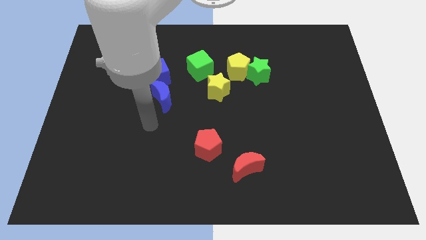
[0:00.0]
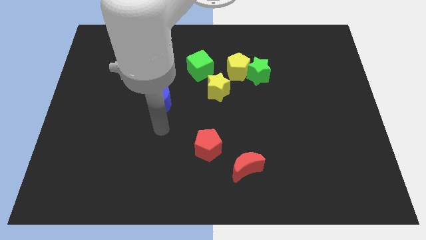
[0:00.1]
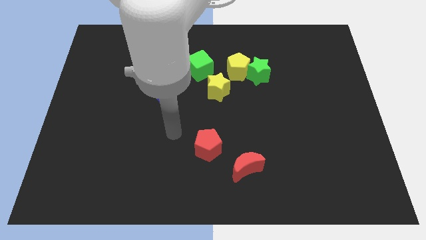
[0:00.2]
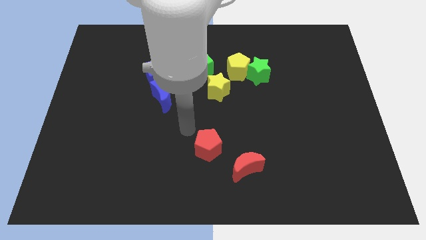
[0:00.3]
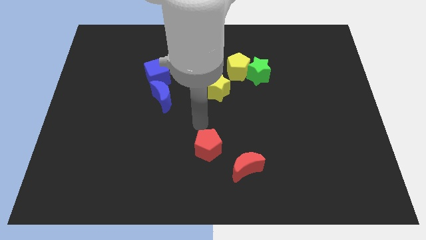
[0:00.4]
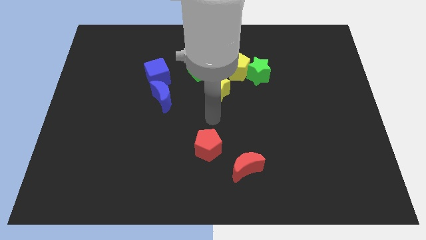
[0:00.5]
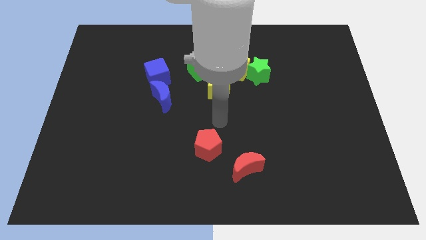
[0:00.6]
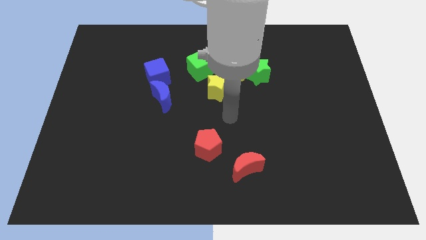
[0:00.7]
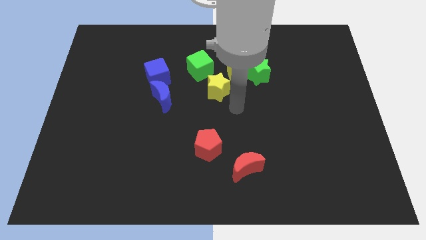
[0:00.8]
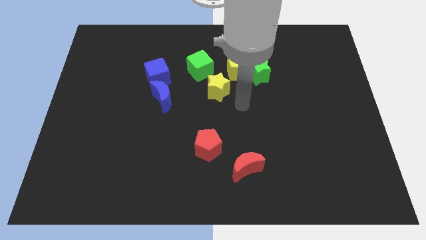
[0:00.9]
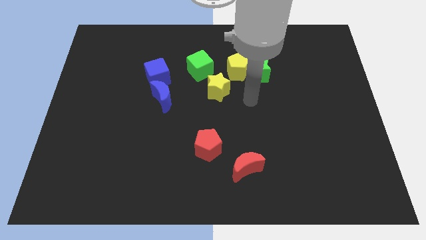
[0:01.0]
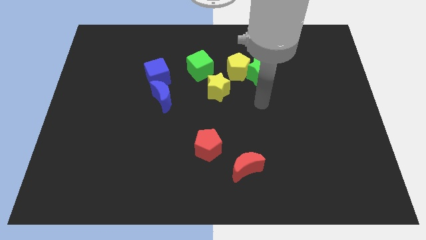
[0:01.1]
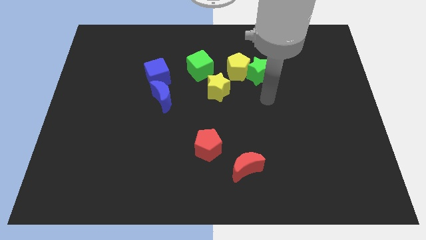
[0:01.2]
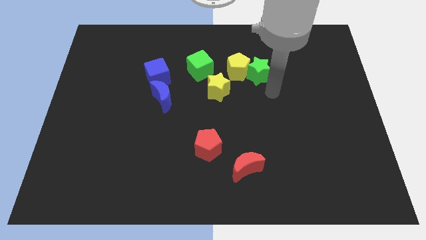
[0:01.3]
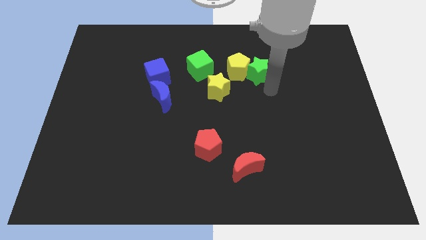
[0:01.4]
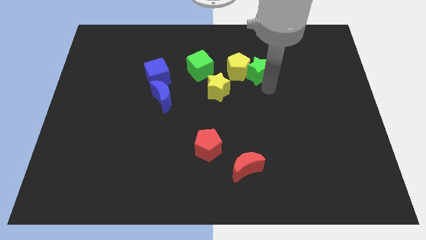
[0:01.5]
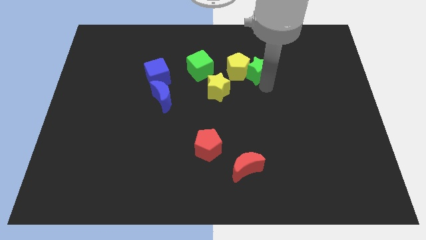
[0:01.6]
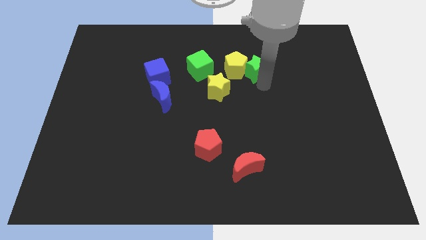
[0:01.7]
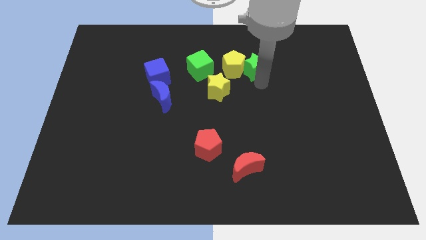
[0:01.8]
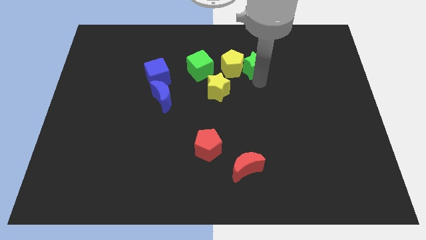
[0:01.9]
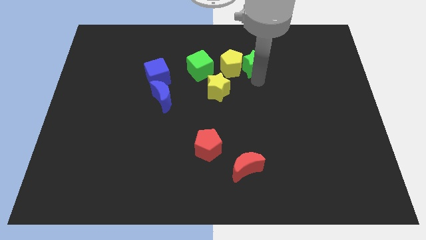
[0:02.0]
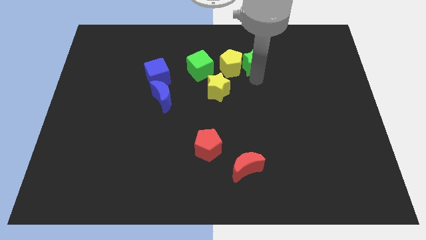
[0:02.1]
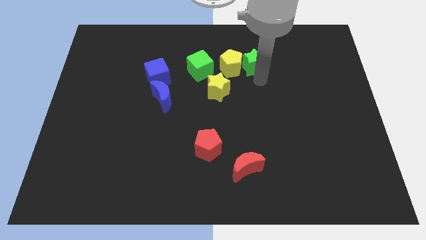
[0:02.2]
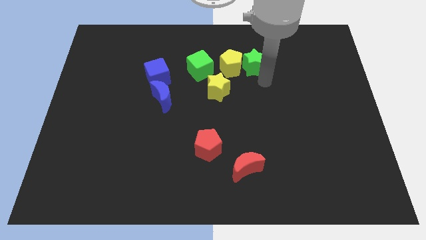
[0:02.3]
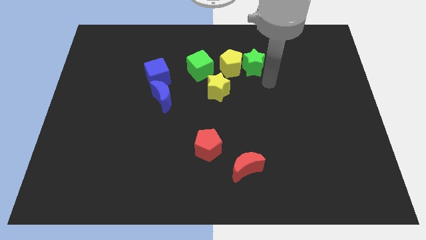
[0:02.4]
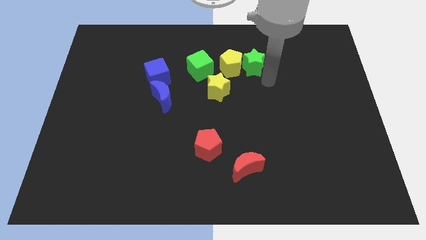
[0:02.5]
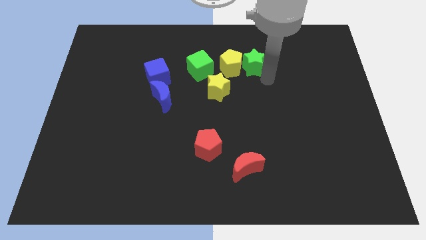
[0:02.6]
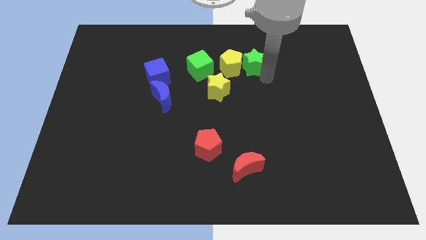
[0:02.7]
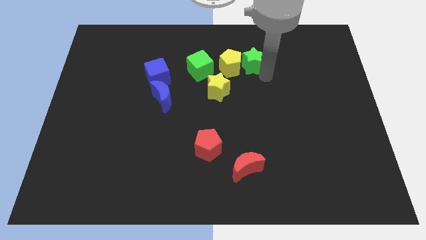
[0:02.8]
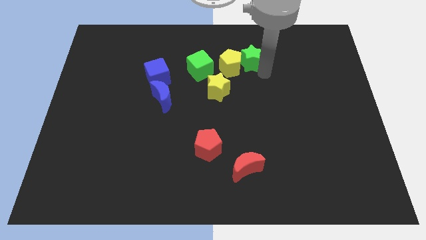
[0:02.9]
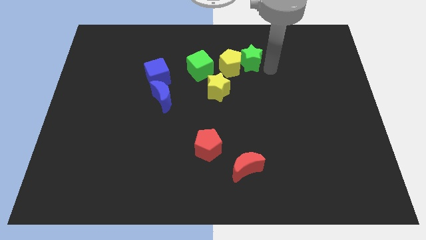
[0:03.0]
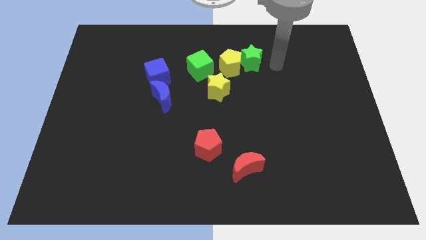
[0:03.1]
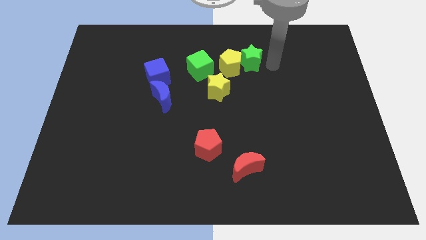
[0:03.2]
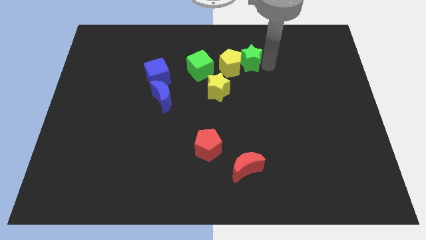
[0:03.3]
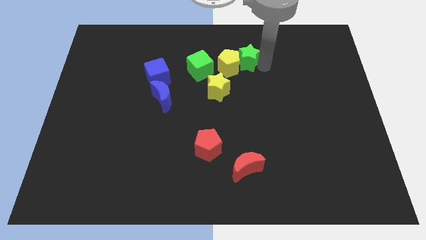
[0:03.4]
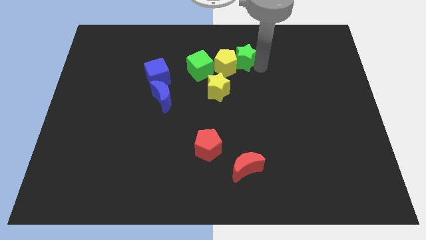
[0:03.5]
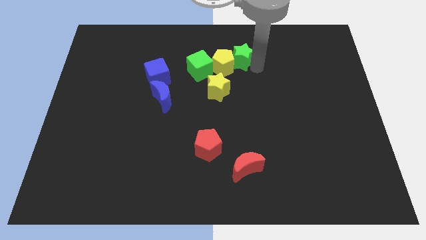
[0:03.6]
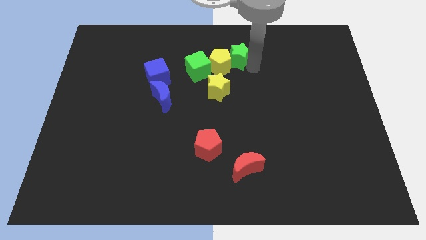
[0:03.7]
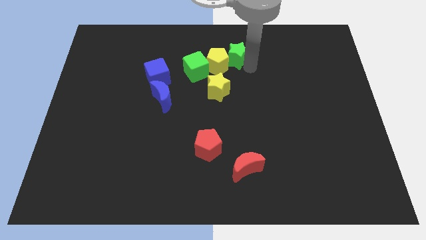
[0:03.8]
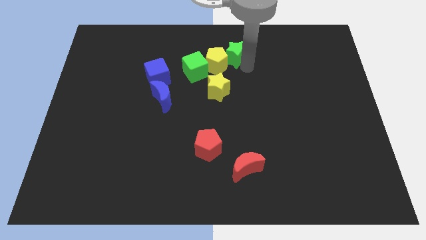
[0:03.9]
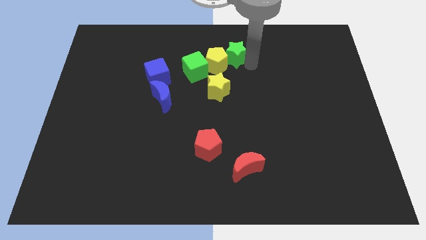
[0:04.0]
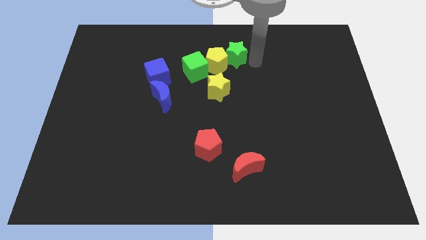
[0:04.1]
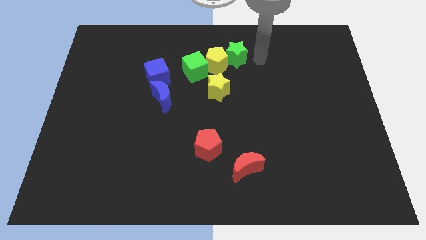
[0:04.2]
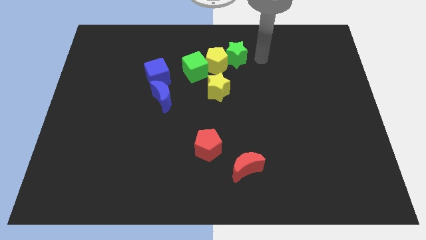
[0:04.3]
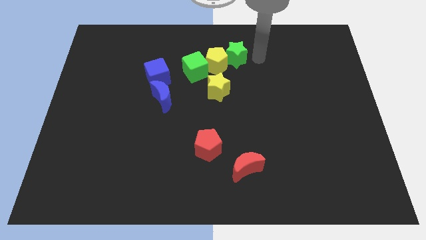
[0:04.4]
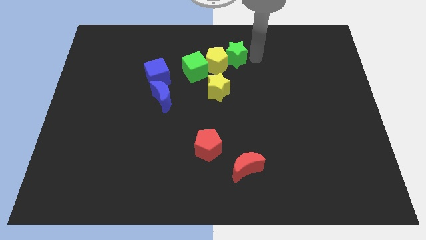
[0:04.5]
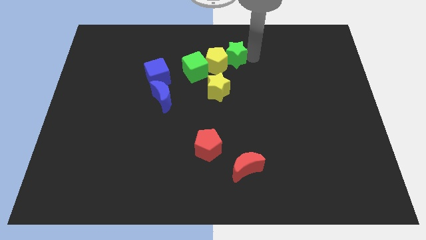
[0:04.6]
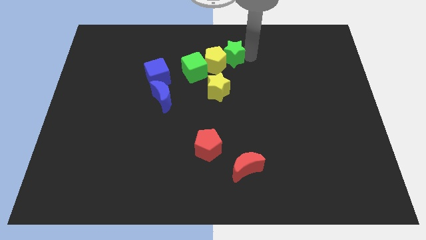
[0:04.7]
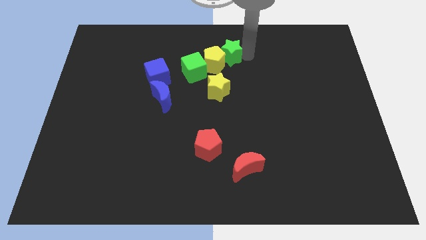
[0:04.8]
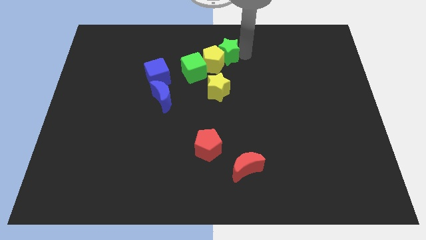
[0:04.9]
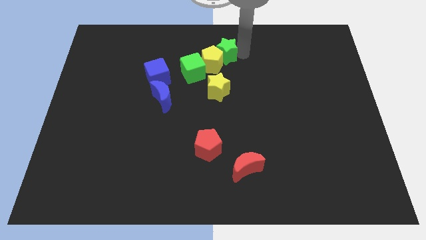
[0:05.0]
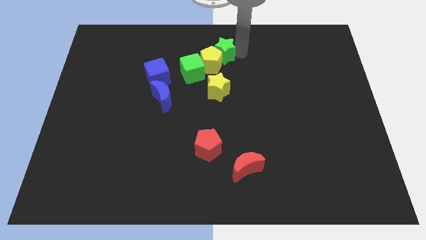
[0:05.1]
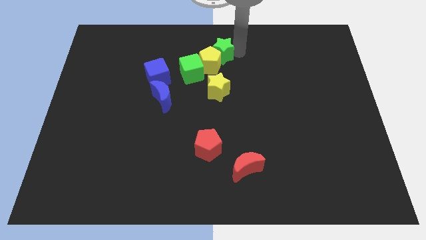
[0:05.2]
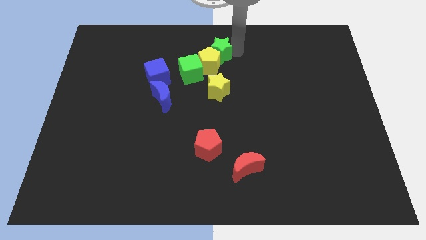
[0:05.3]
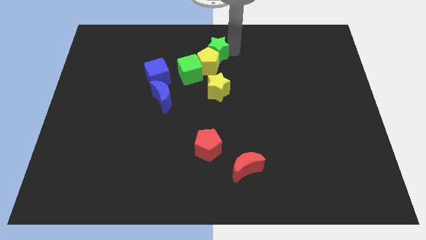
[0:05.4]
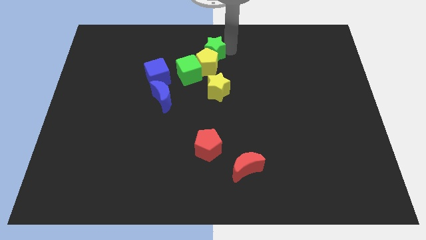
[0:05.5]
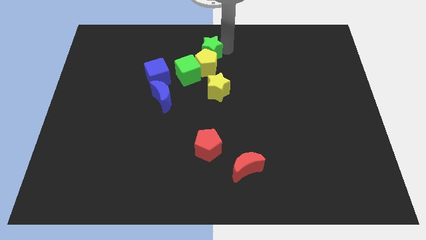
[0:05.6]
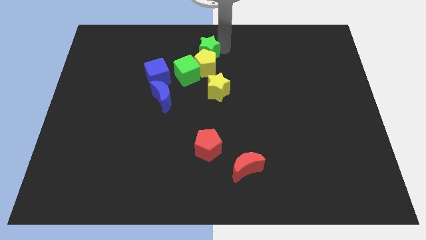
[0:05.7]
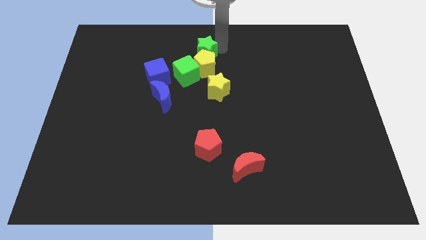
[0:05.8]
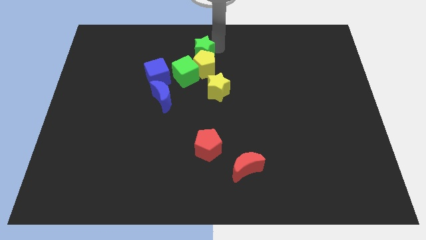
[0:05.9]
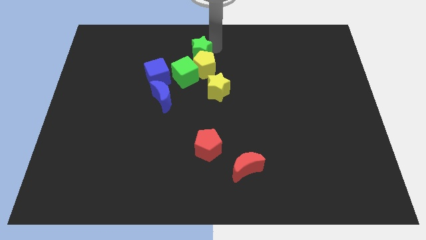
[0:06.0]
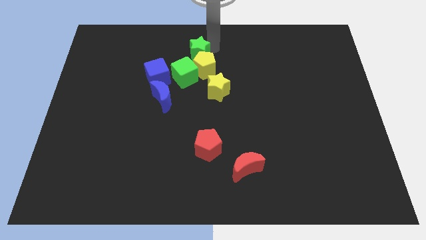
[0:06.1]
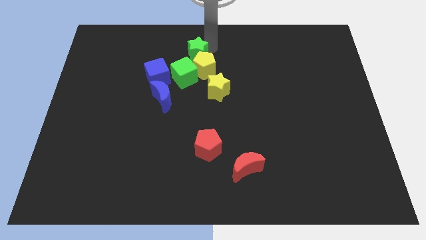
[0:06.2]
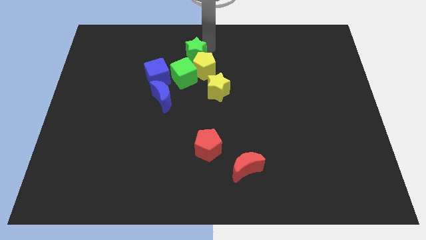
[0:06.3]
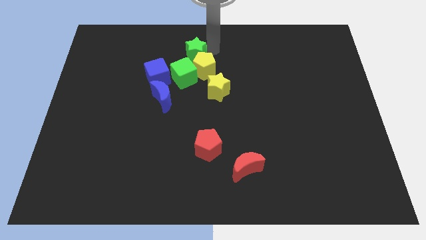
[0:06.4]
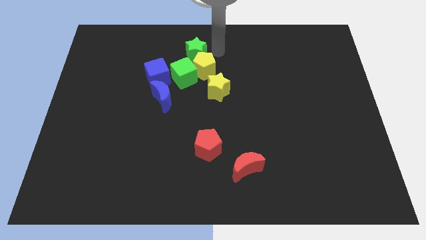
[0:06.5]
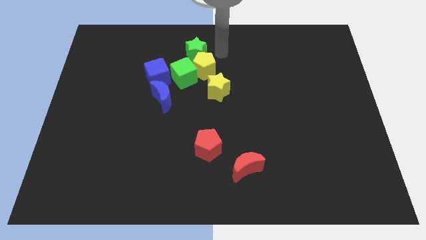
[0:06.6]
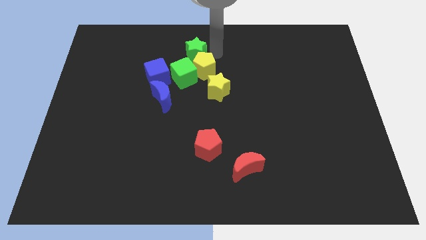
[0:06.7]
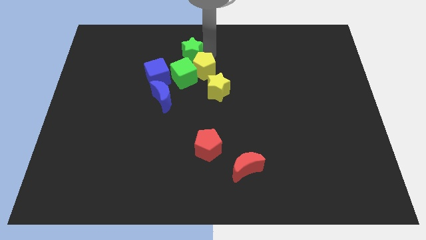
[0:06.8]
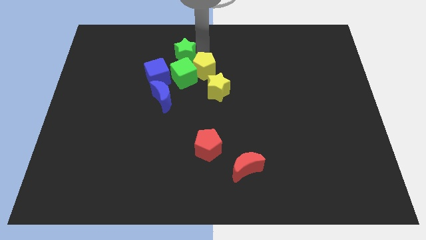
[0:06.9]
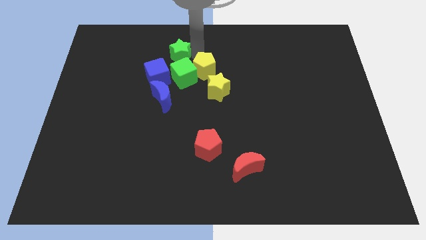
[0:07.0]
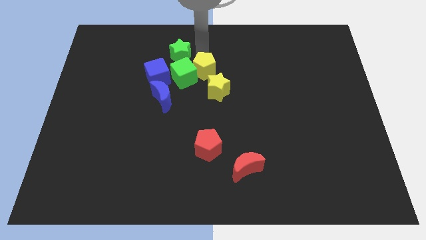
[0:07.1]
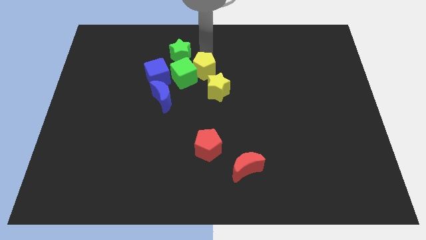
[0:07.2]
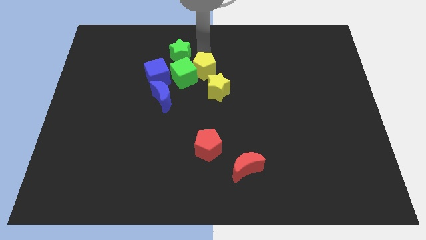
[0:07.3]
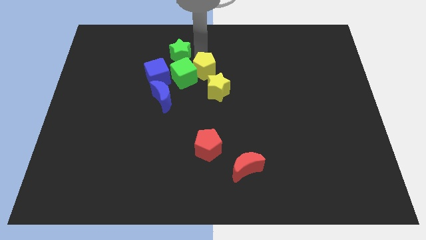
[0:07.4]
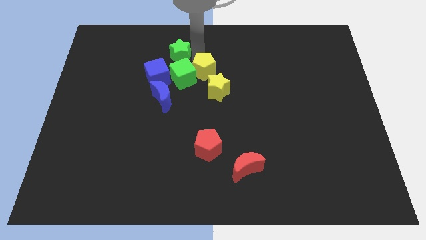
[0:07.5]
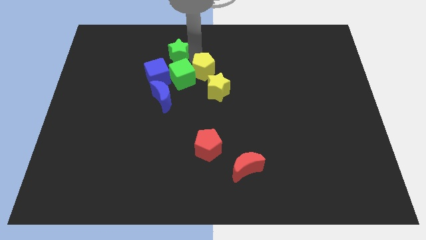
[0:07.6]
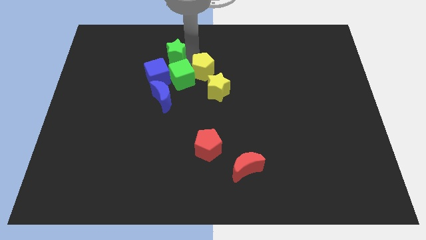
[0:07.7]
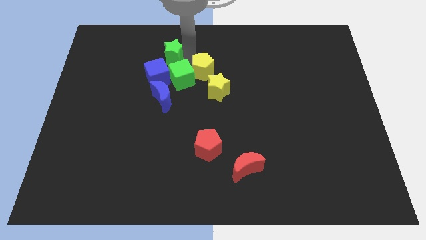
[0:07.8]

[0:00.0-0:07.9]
push the green star to the left

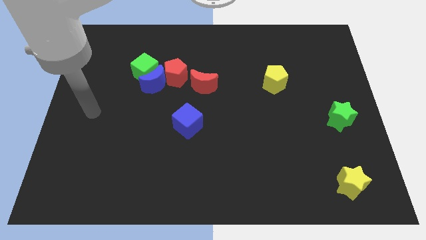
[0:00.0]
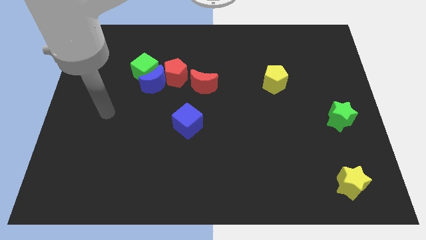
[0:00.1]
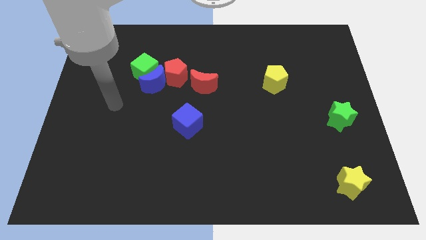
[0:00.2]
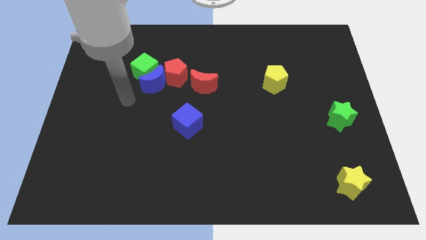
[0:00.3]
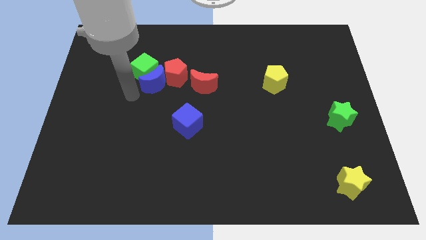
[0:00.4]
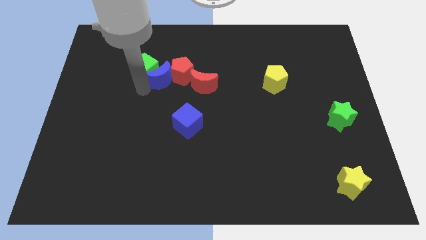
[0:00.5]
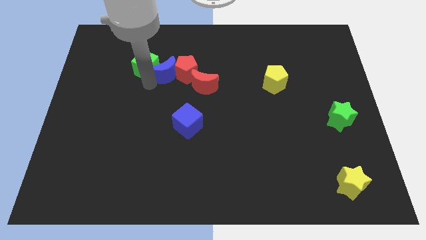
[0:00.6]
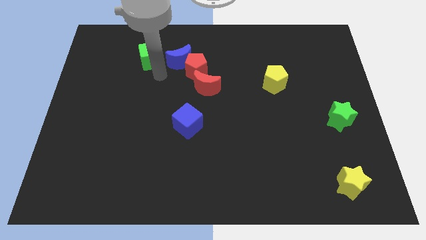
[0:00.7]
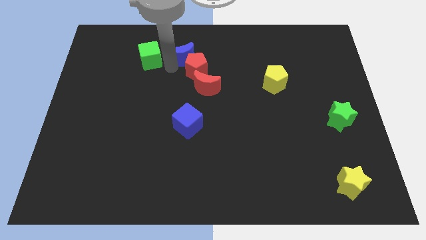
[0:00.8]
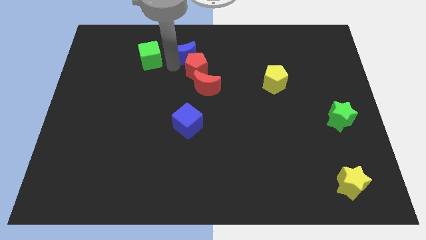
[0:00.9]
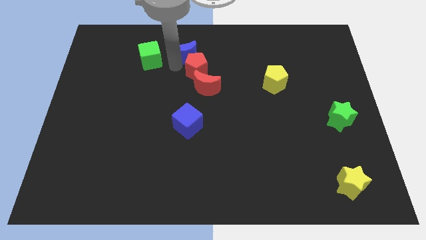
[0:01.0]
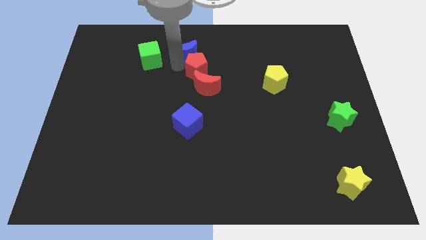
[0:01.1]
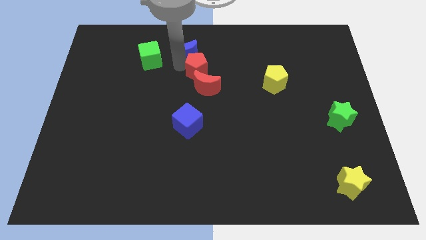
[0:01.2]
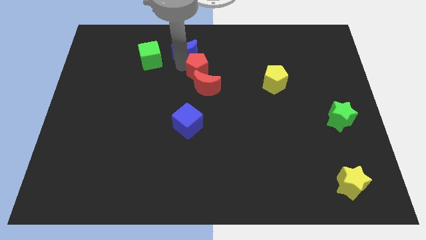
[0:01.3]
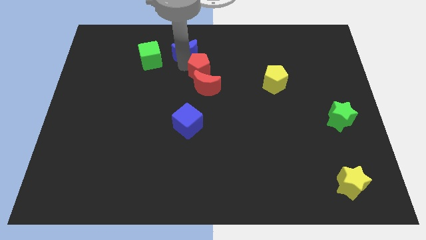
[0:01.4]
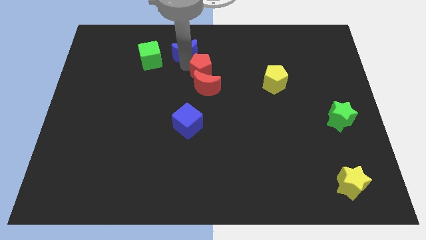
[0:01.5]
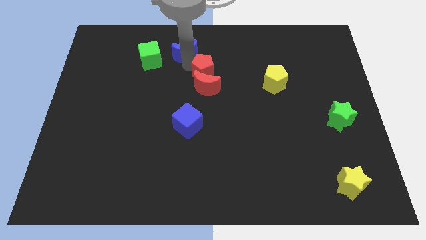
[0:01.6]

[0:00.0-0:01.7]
slightly move the red pentagon to the right
